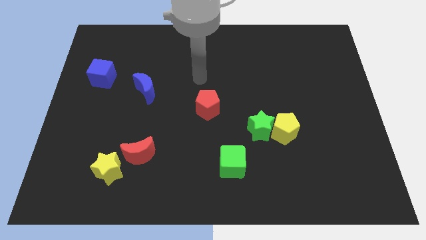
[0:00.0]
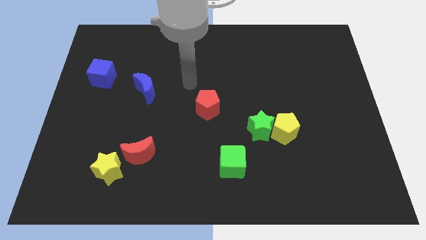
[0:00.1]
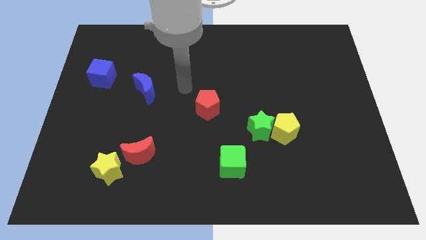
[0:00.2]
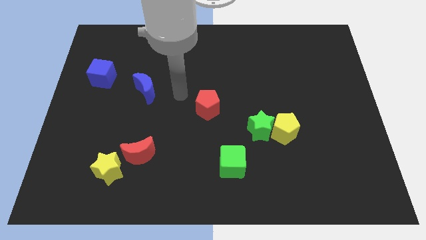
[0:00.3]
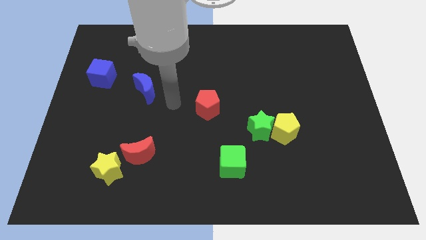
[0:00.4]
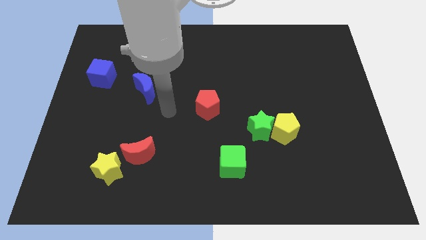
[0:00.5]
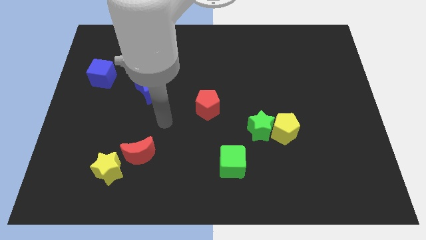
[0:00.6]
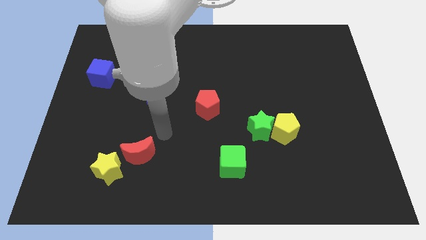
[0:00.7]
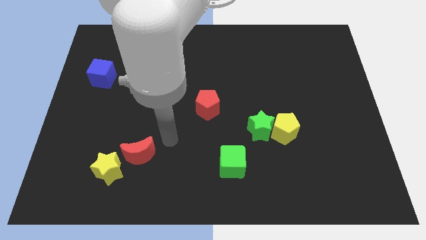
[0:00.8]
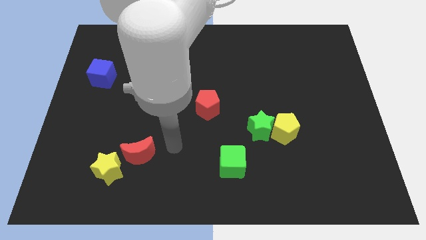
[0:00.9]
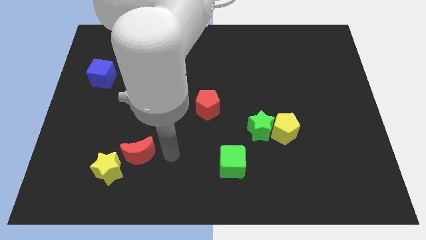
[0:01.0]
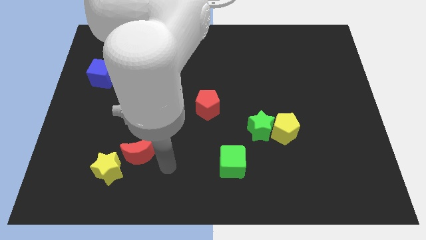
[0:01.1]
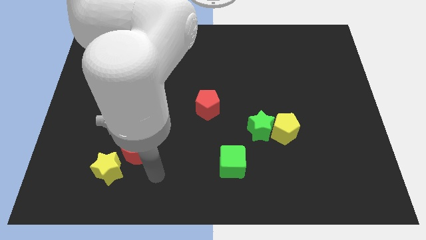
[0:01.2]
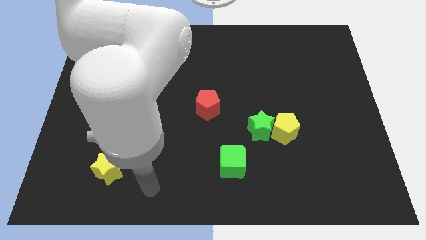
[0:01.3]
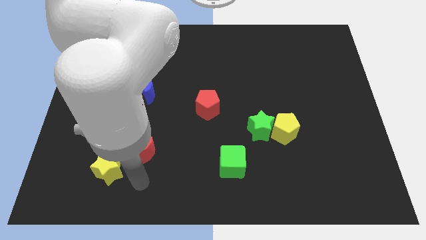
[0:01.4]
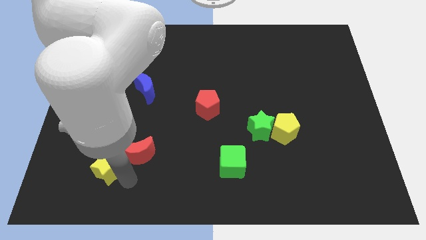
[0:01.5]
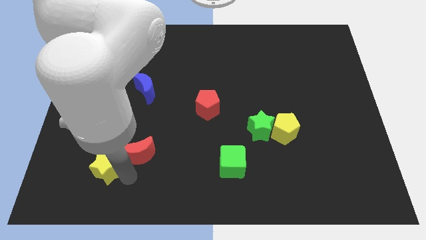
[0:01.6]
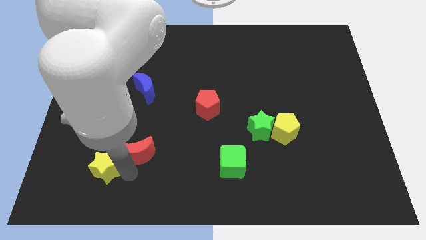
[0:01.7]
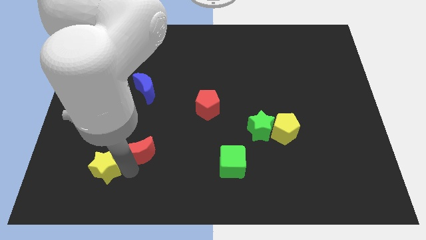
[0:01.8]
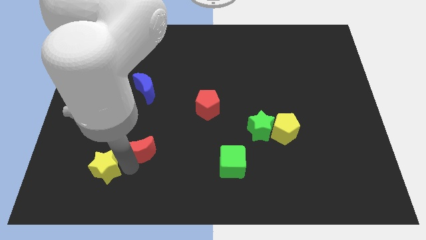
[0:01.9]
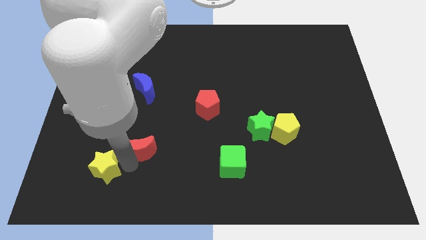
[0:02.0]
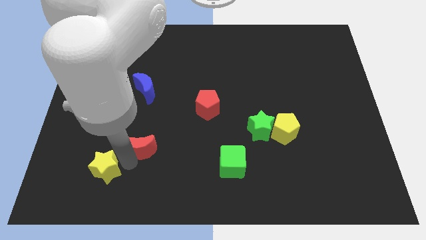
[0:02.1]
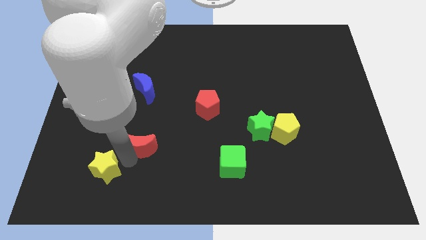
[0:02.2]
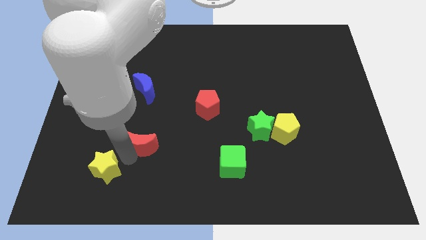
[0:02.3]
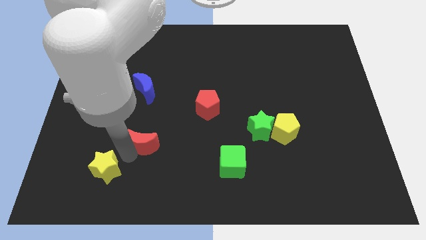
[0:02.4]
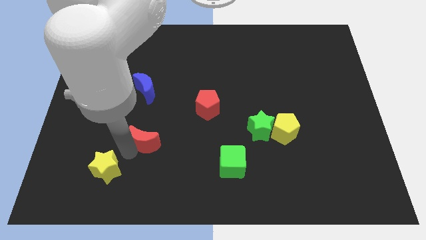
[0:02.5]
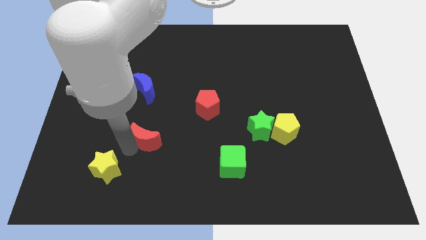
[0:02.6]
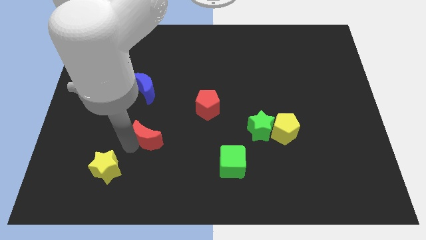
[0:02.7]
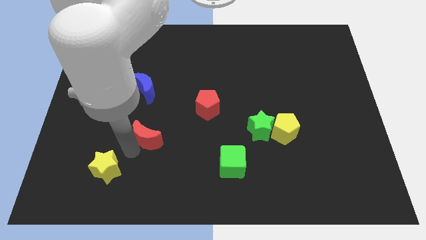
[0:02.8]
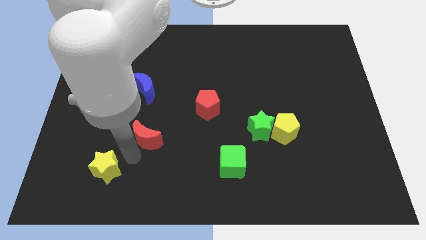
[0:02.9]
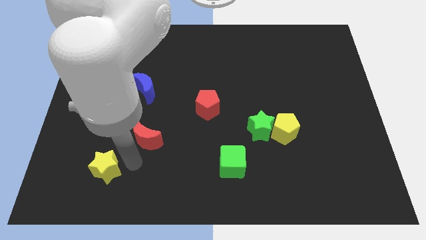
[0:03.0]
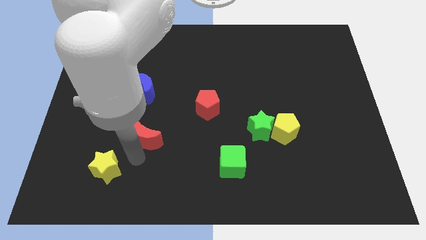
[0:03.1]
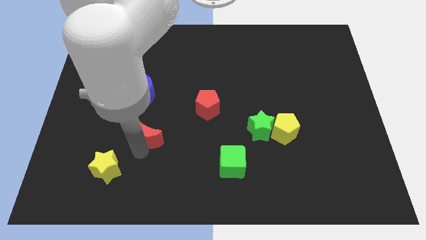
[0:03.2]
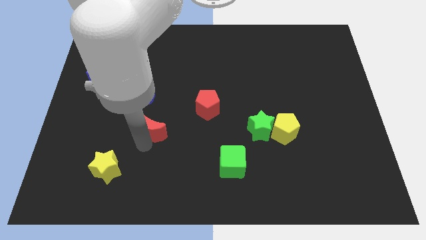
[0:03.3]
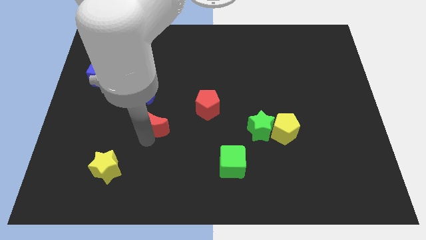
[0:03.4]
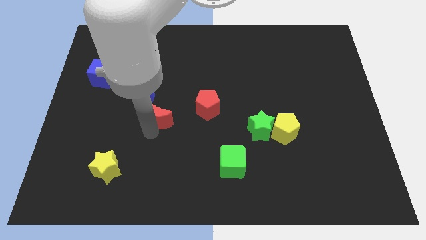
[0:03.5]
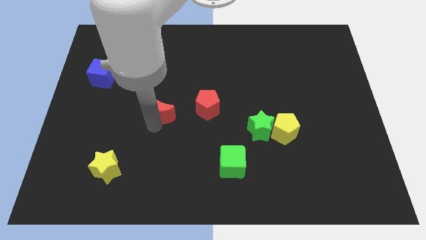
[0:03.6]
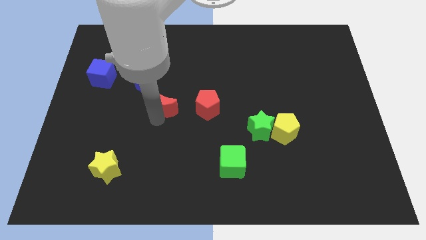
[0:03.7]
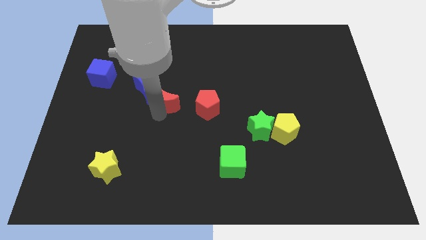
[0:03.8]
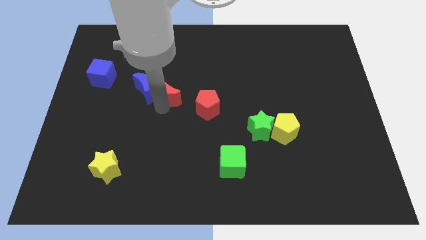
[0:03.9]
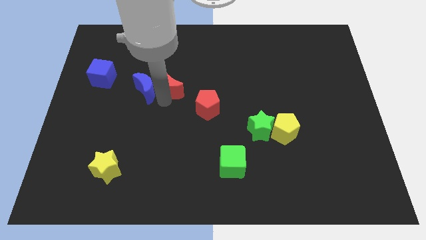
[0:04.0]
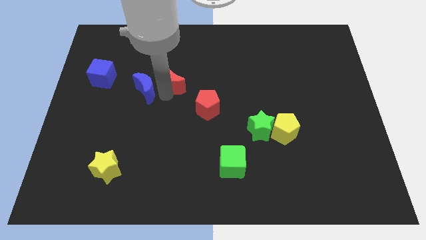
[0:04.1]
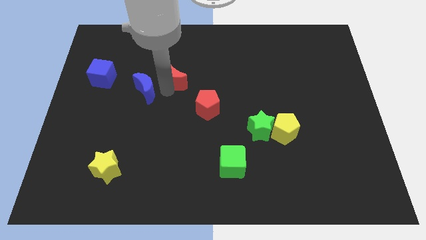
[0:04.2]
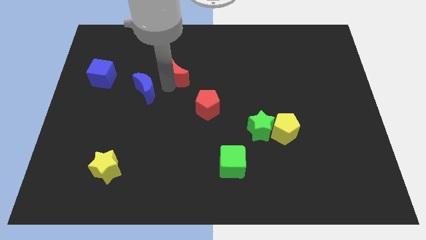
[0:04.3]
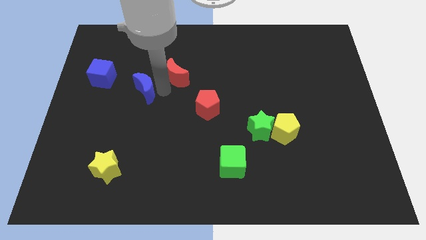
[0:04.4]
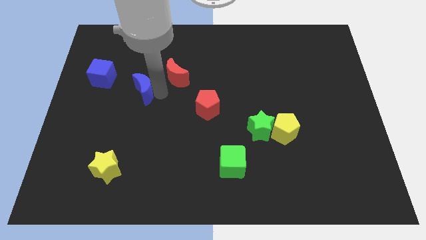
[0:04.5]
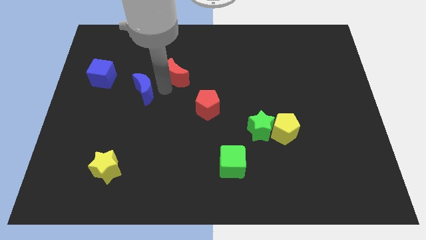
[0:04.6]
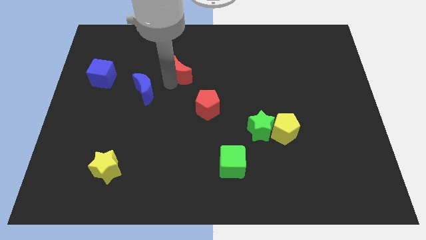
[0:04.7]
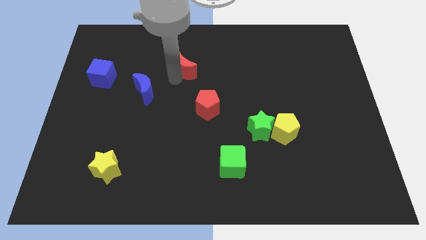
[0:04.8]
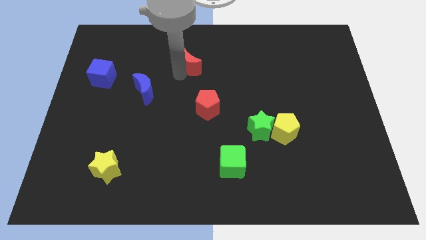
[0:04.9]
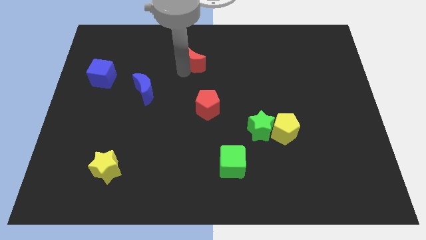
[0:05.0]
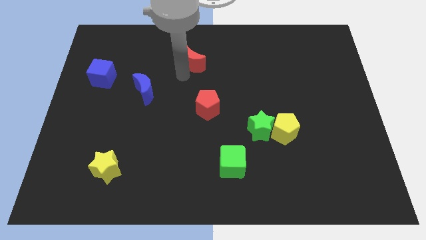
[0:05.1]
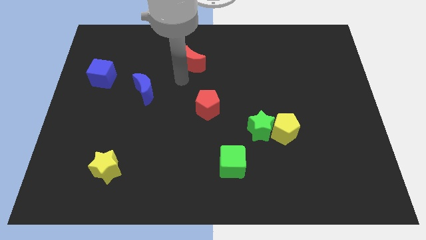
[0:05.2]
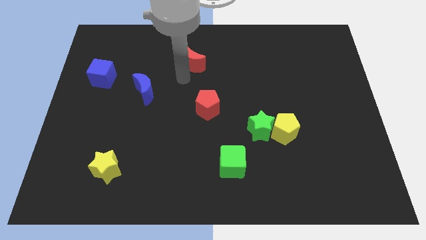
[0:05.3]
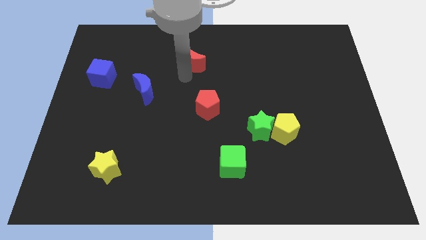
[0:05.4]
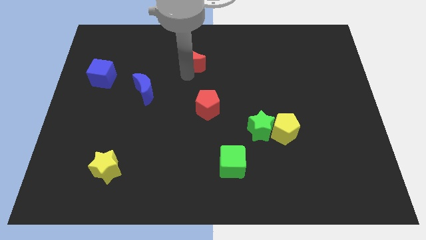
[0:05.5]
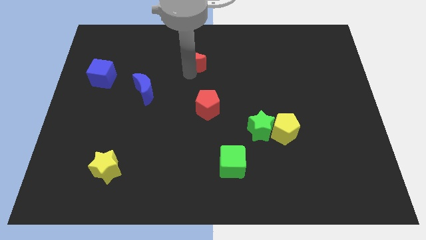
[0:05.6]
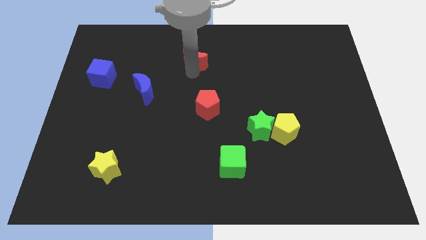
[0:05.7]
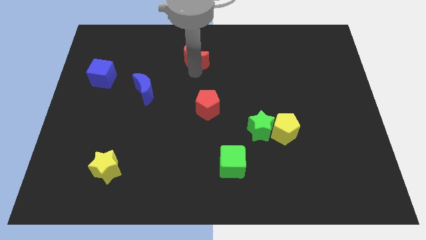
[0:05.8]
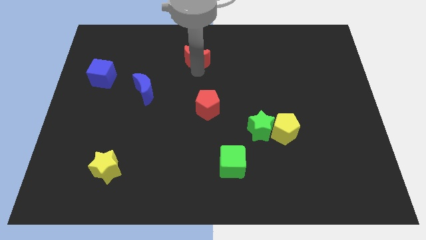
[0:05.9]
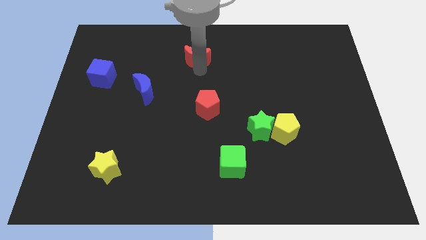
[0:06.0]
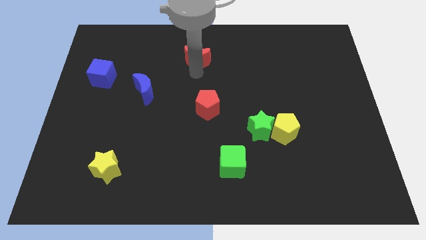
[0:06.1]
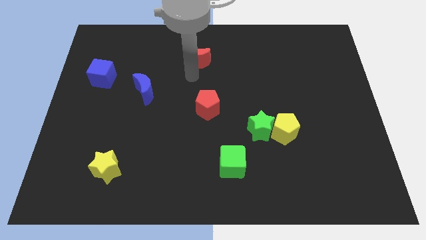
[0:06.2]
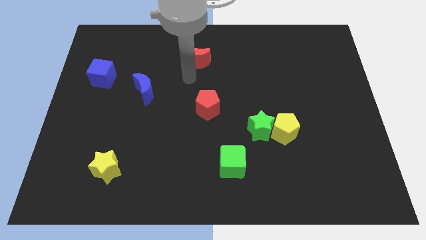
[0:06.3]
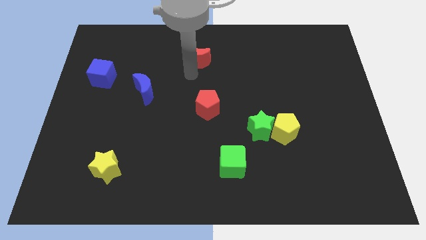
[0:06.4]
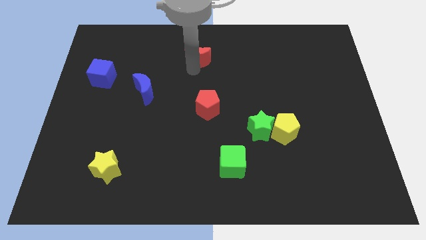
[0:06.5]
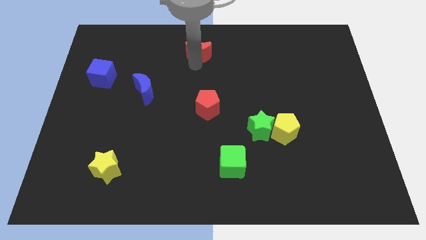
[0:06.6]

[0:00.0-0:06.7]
put the red moon to the towards your base

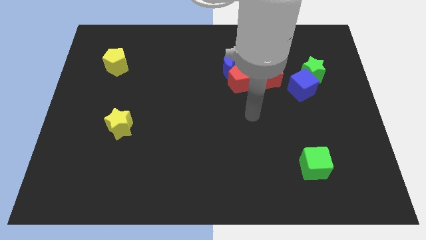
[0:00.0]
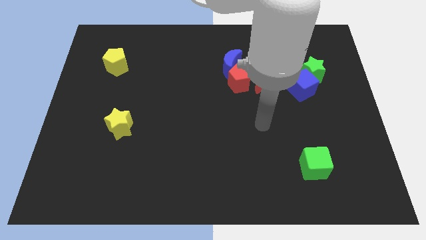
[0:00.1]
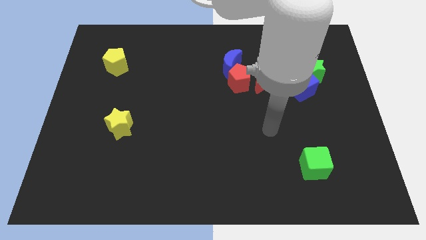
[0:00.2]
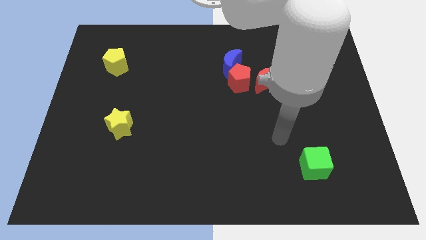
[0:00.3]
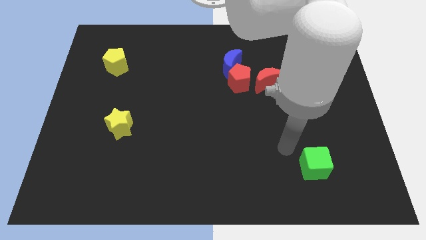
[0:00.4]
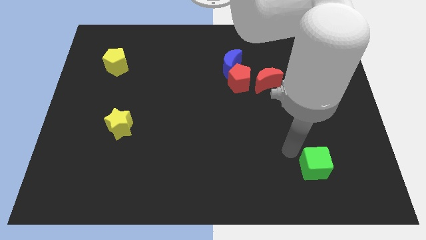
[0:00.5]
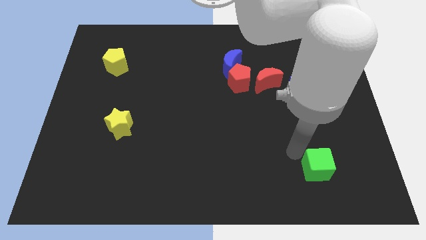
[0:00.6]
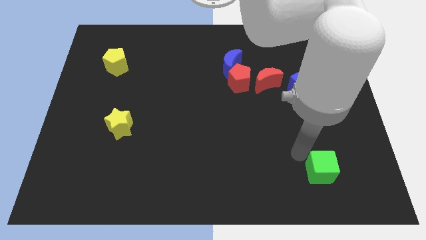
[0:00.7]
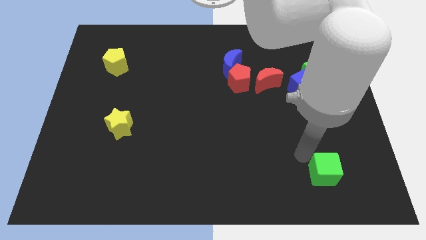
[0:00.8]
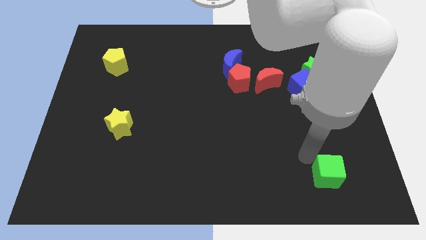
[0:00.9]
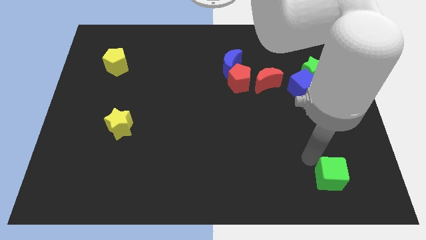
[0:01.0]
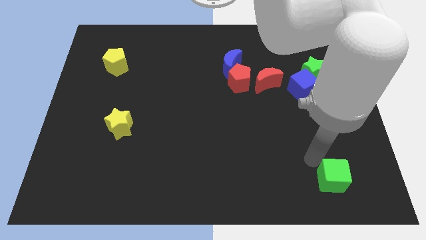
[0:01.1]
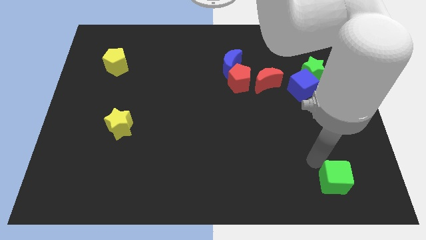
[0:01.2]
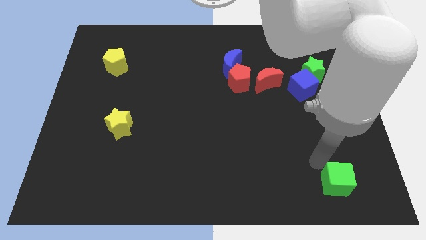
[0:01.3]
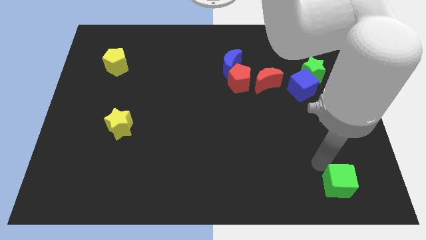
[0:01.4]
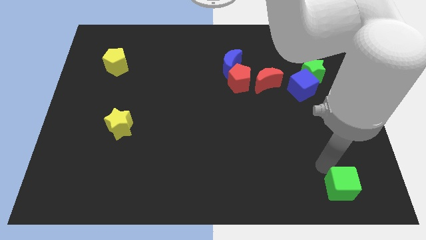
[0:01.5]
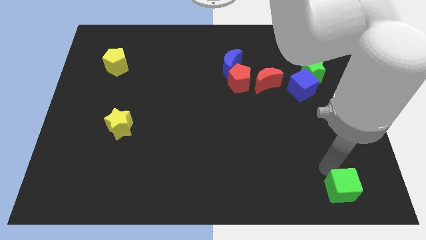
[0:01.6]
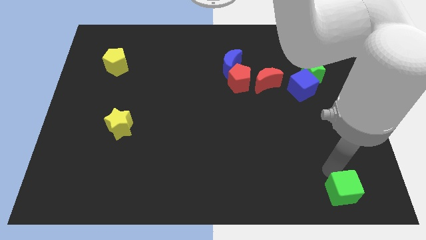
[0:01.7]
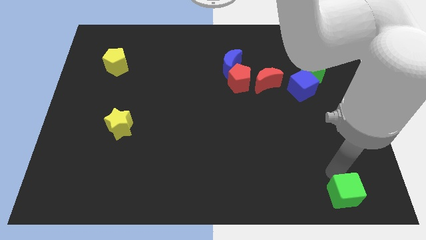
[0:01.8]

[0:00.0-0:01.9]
push the green cube to the bottom right corner
